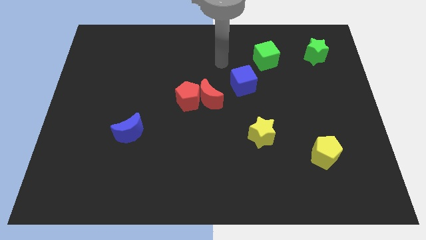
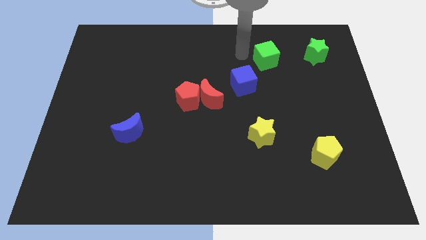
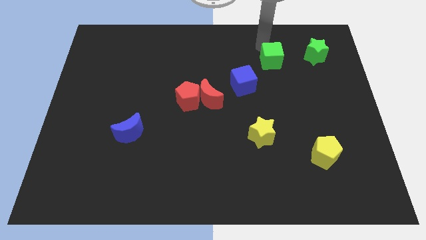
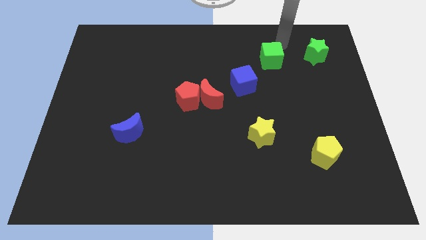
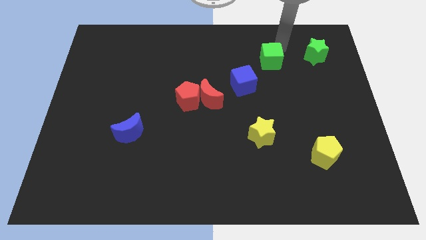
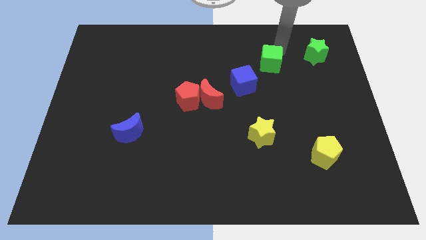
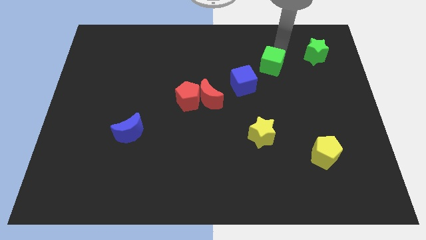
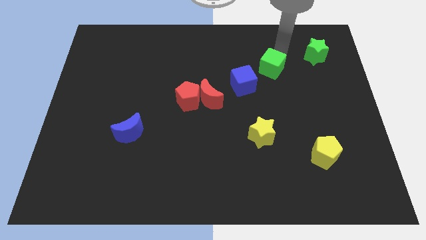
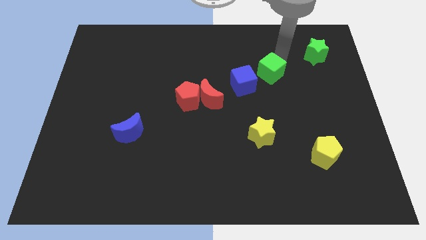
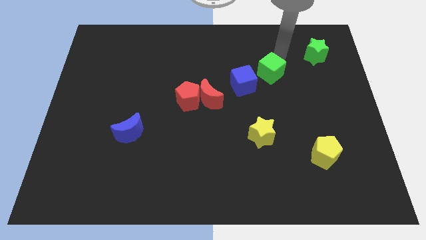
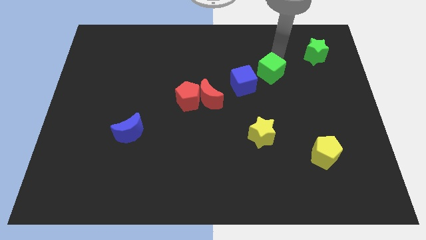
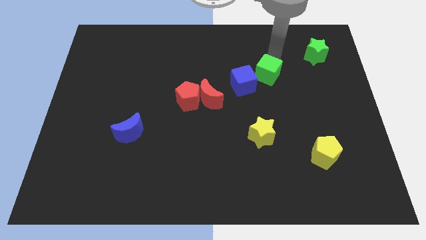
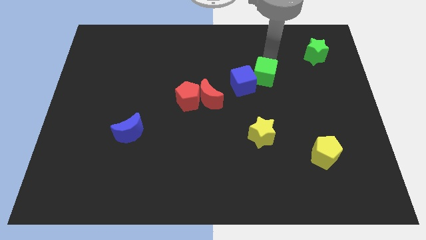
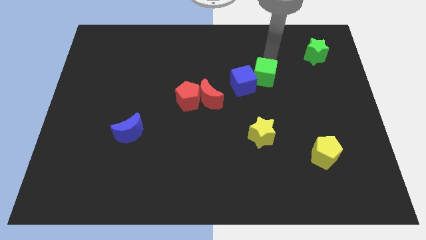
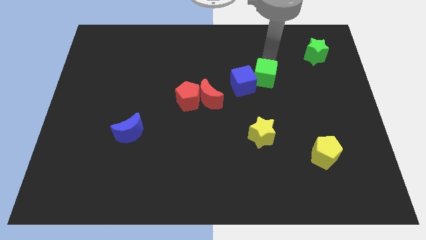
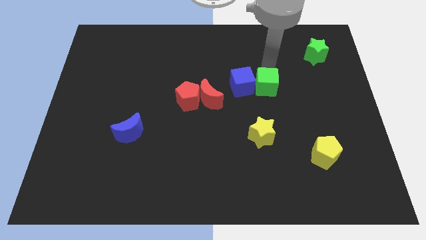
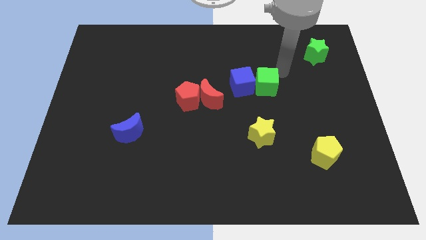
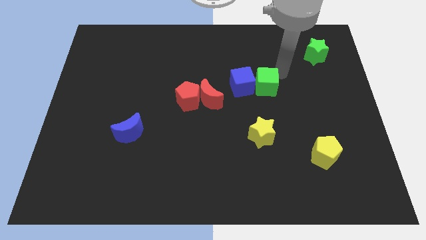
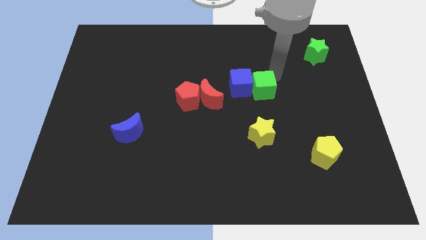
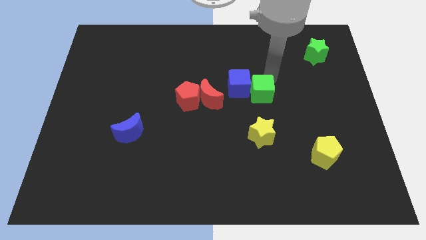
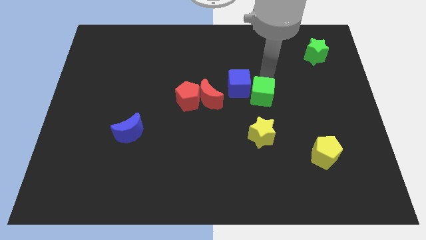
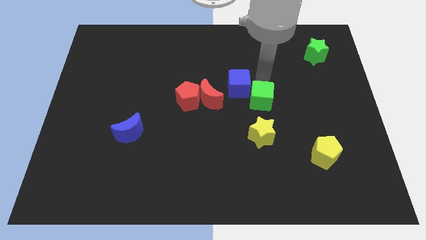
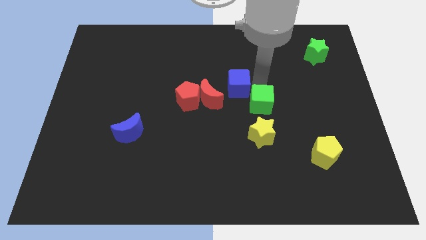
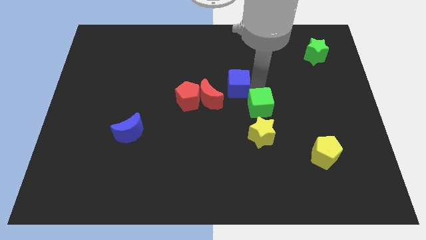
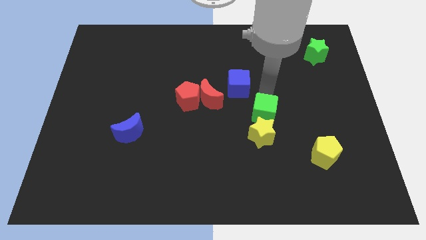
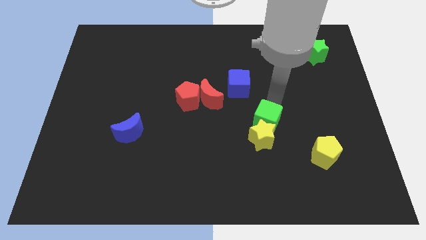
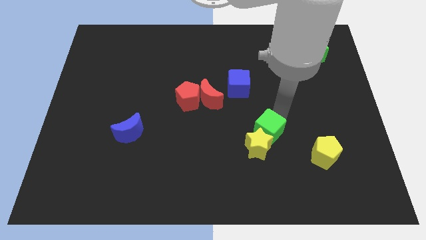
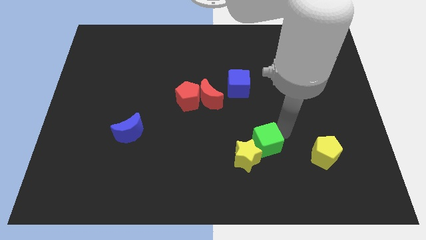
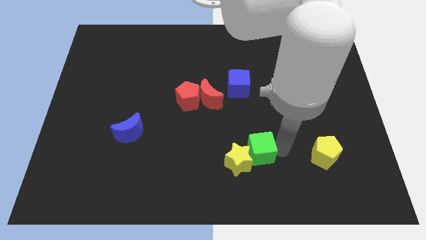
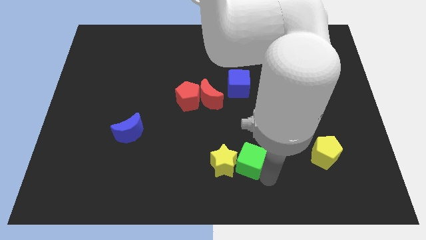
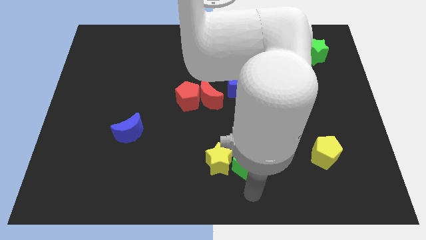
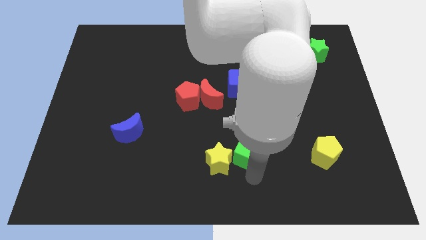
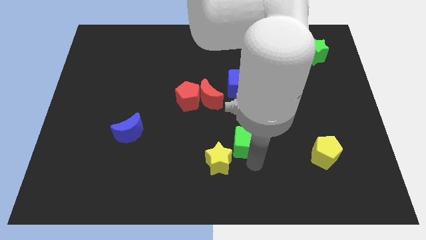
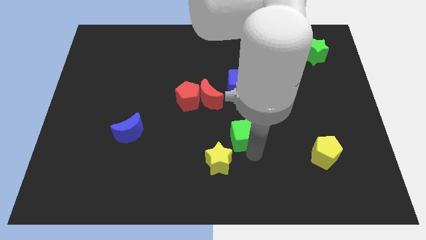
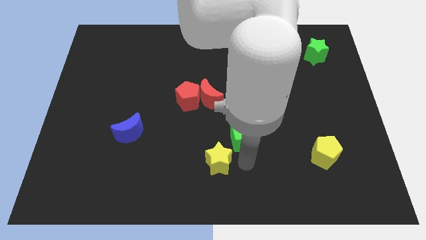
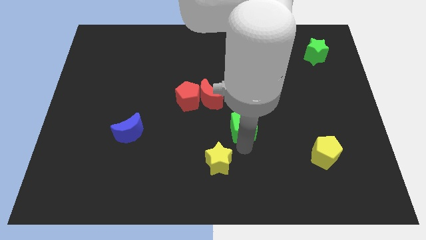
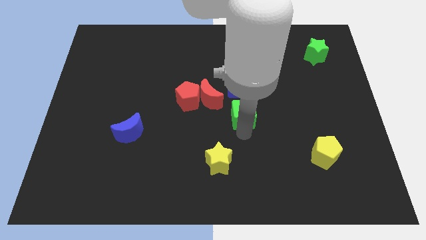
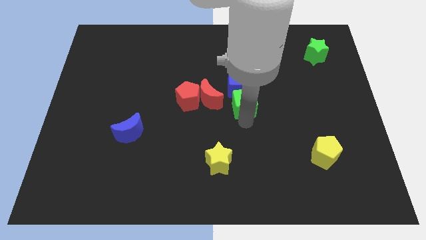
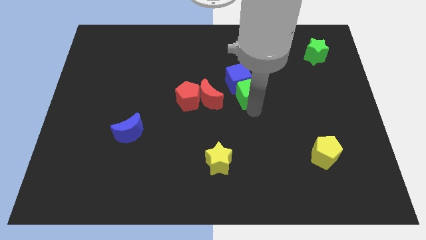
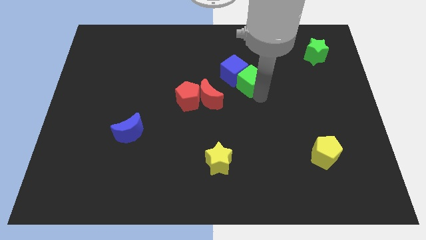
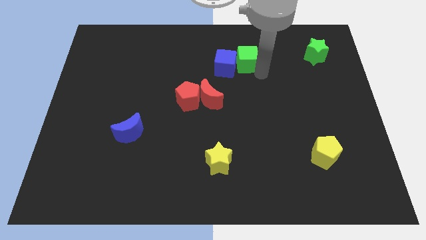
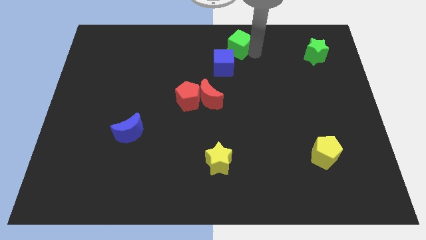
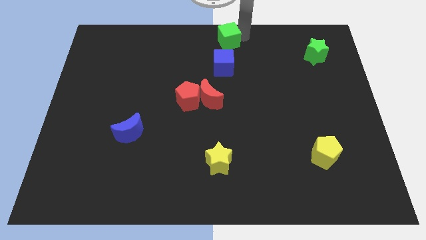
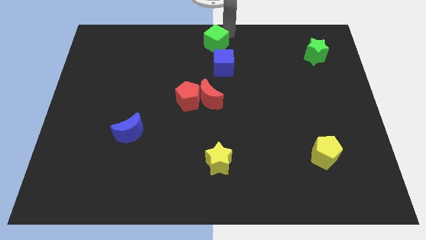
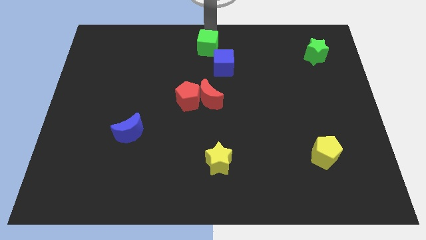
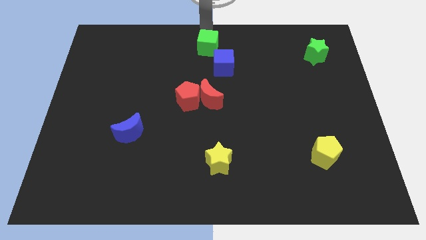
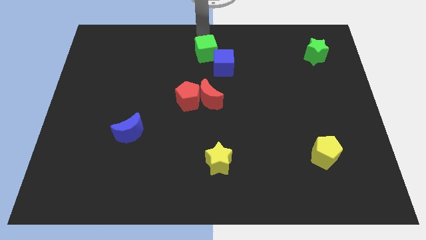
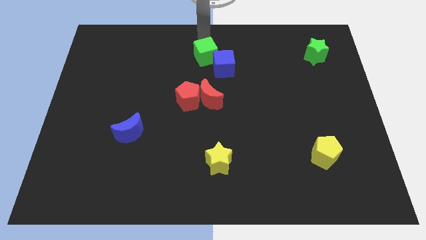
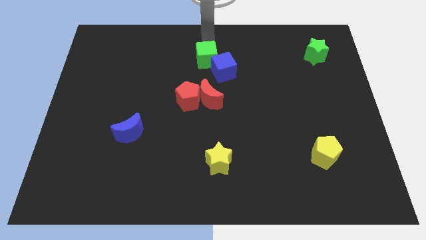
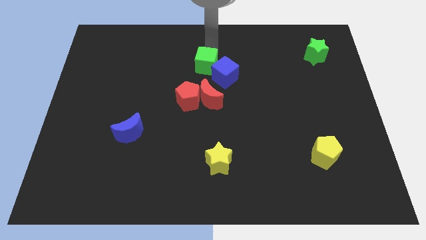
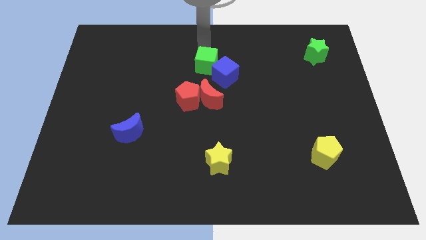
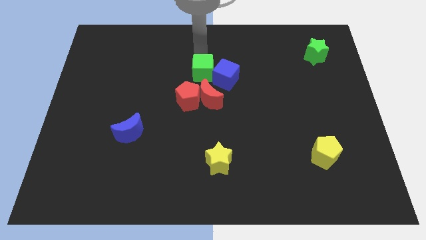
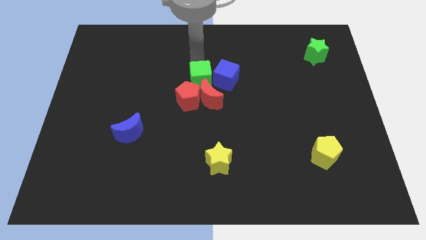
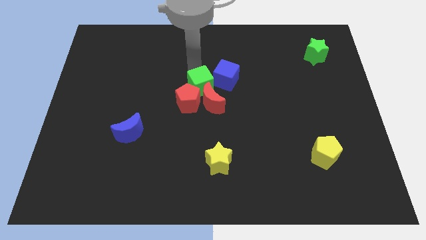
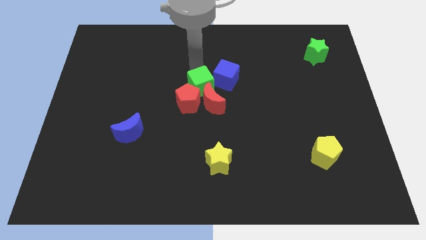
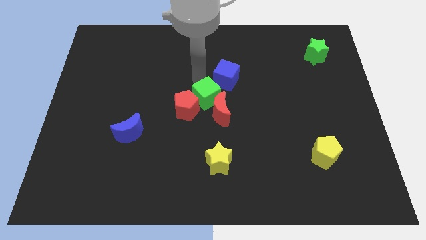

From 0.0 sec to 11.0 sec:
move the green cube downwards and left diagonally

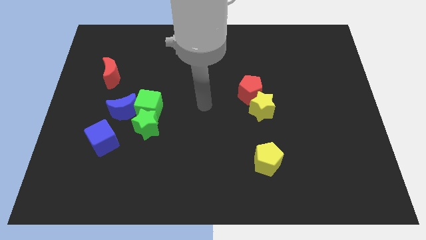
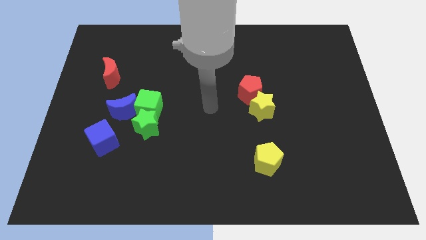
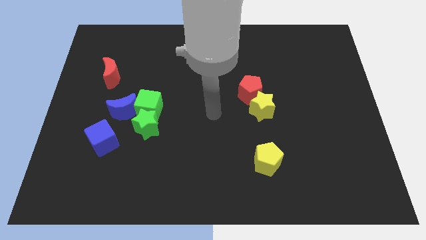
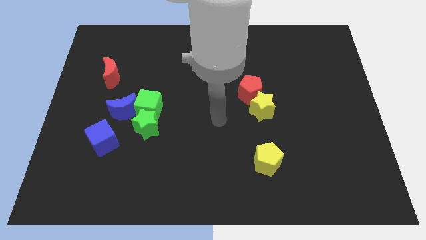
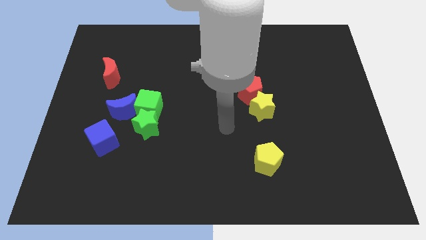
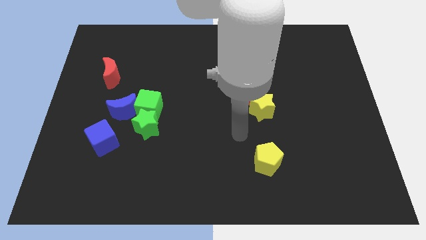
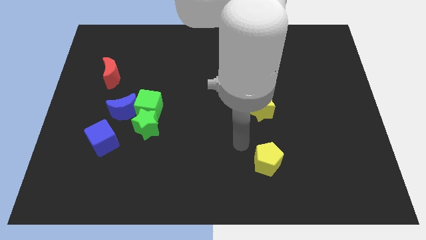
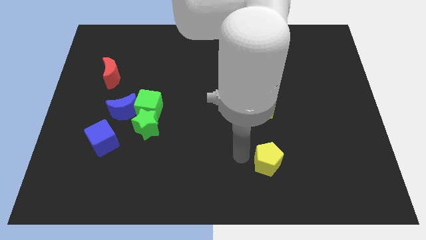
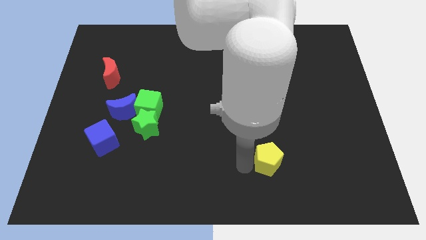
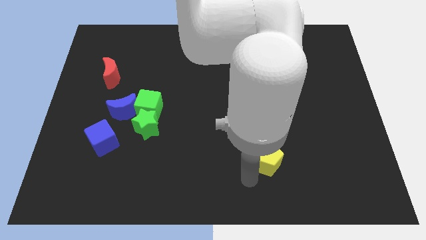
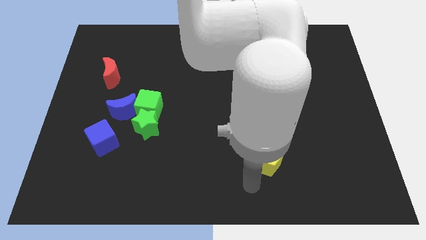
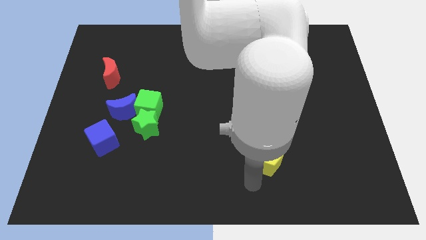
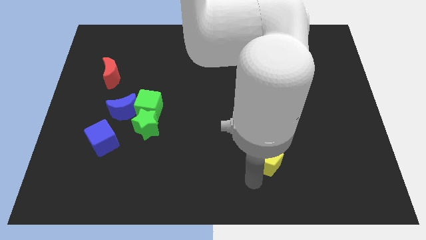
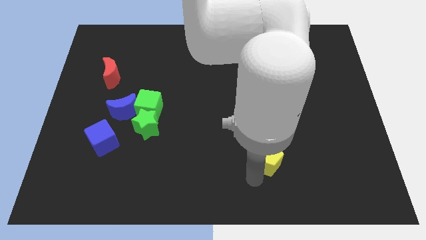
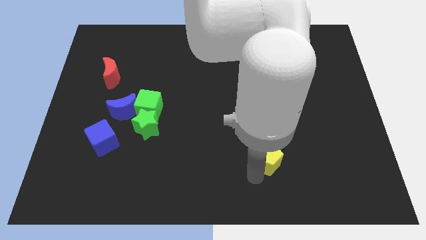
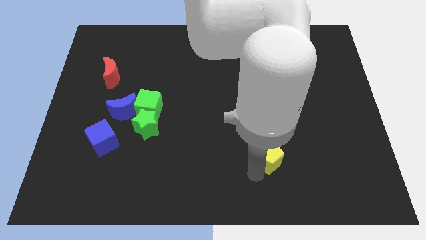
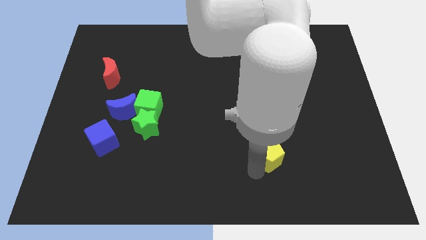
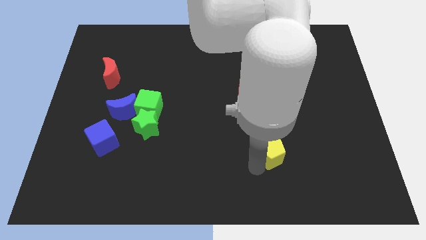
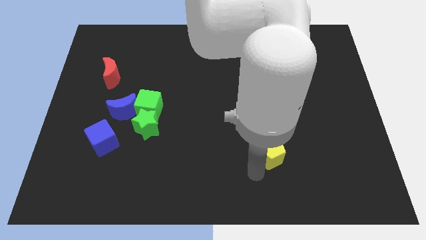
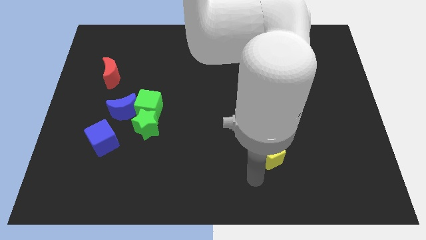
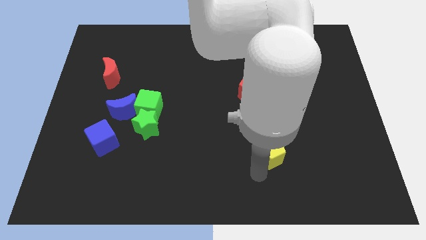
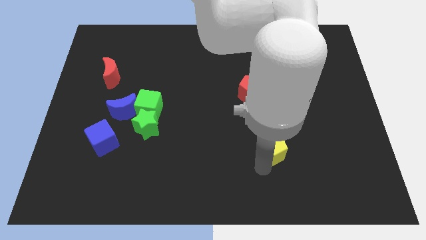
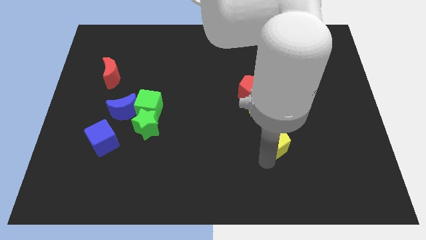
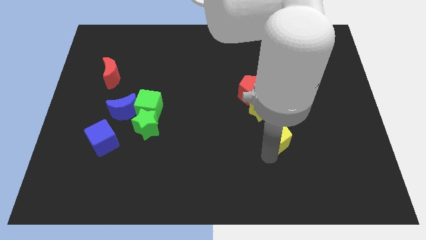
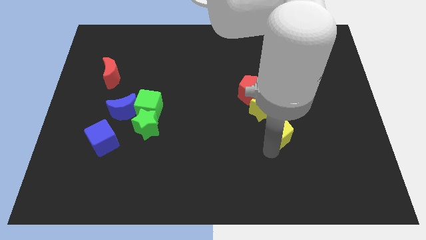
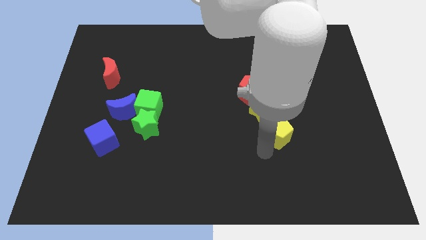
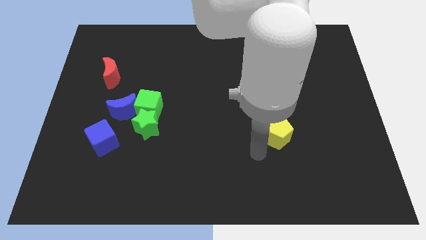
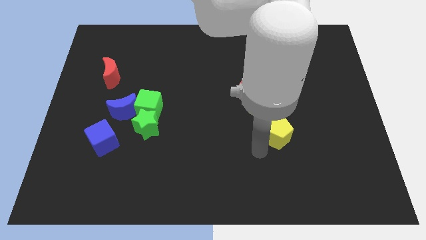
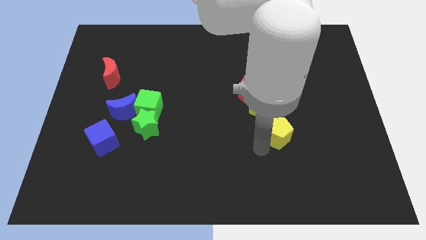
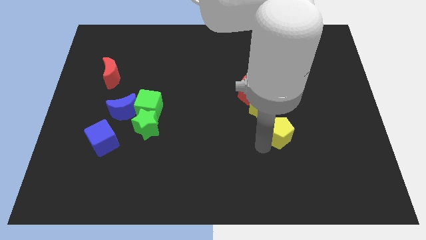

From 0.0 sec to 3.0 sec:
push the yellow pentagon upwards and right diagonally a bit
